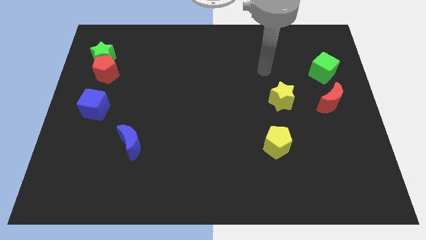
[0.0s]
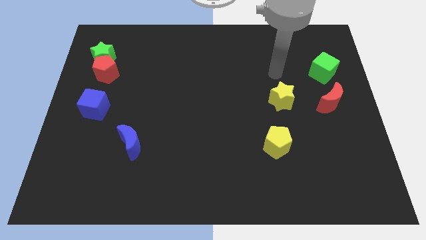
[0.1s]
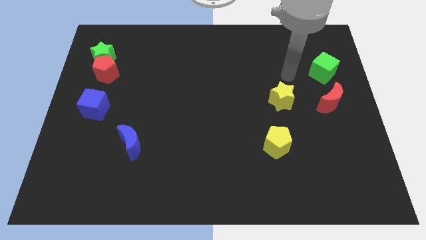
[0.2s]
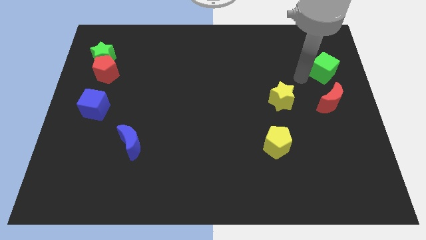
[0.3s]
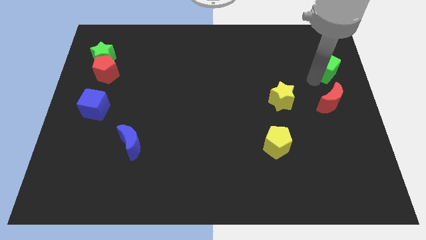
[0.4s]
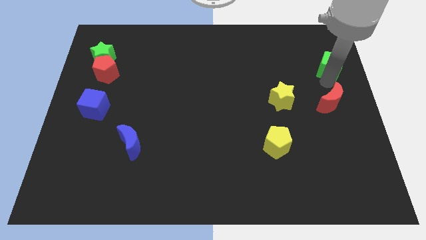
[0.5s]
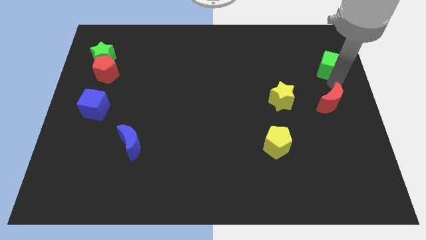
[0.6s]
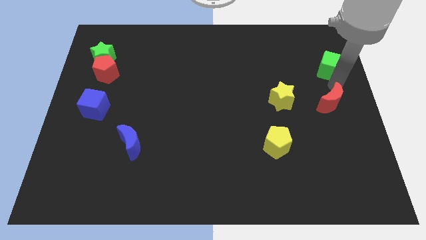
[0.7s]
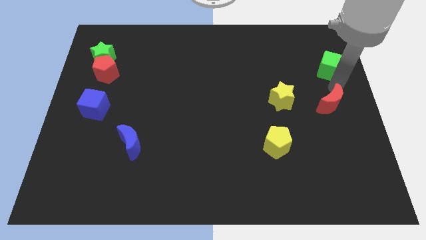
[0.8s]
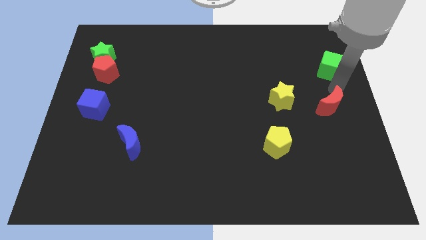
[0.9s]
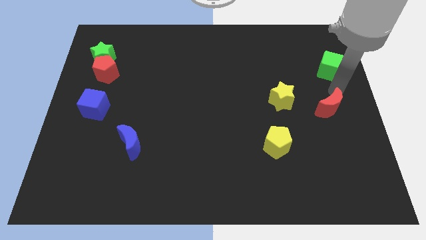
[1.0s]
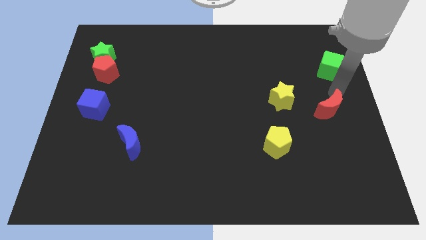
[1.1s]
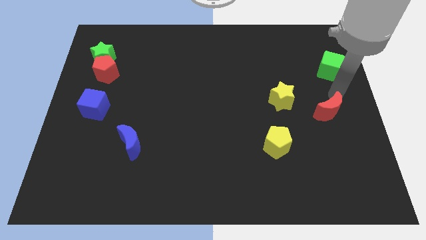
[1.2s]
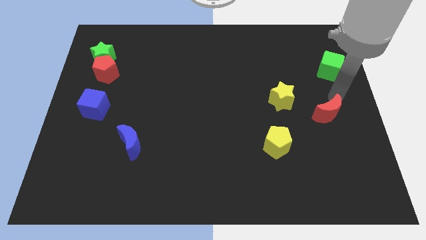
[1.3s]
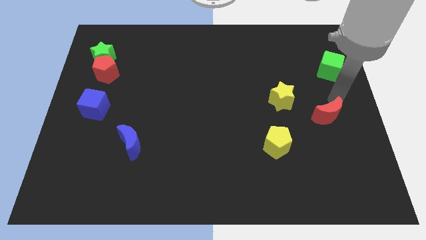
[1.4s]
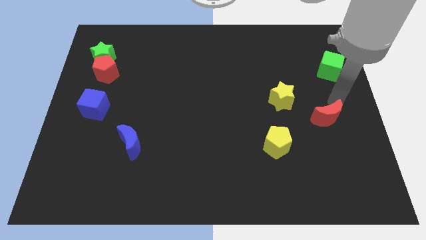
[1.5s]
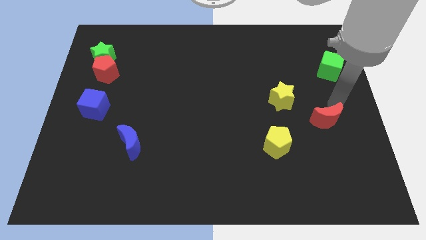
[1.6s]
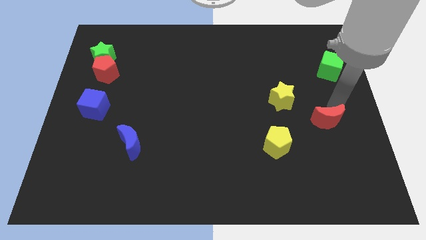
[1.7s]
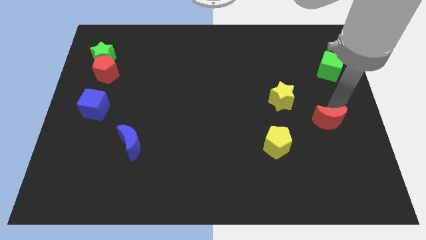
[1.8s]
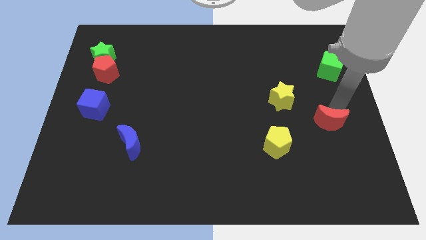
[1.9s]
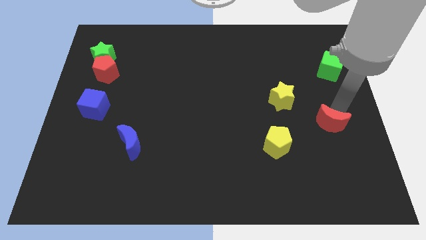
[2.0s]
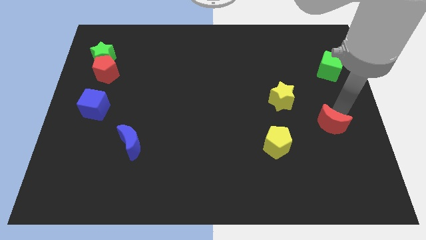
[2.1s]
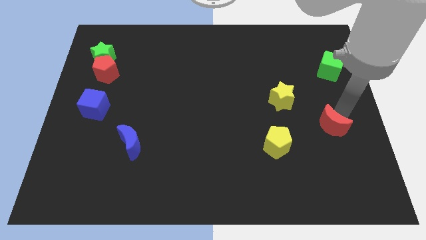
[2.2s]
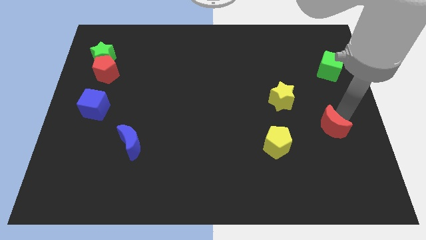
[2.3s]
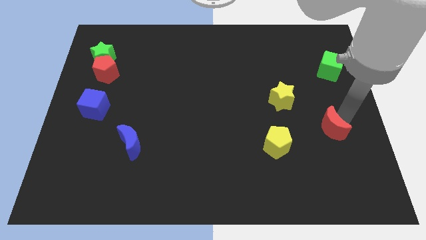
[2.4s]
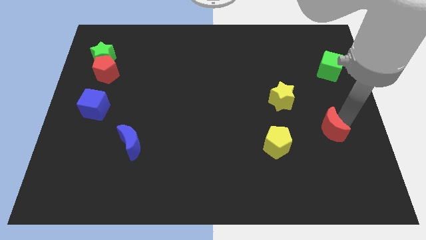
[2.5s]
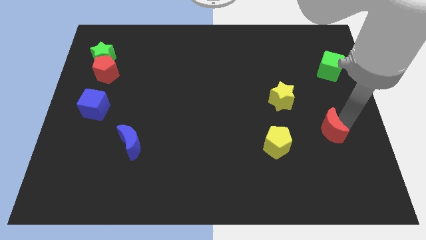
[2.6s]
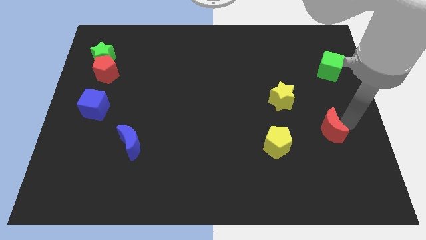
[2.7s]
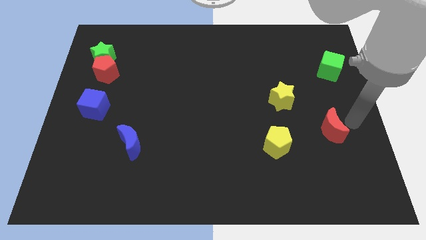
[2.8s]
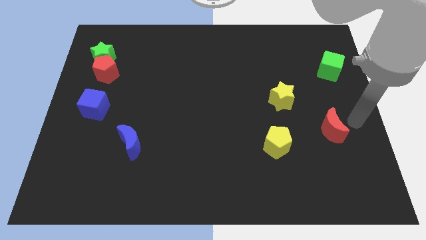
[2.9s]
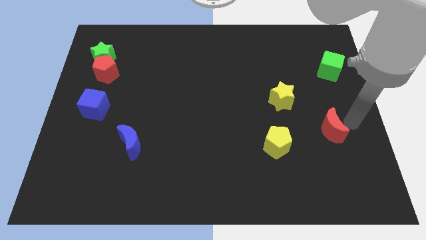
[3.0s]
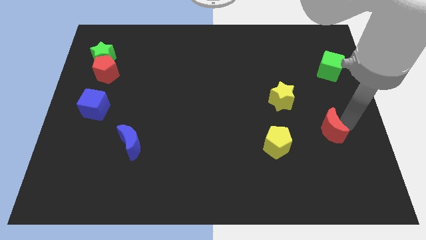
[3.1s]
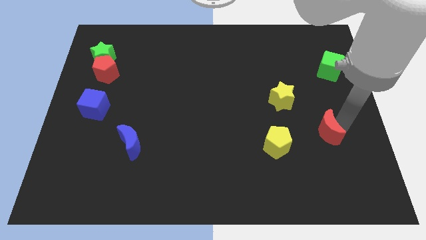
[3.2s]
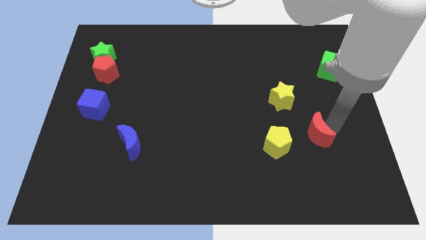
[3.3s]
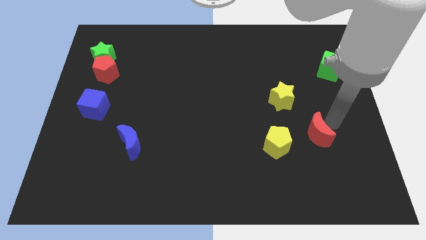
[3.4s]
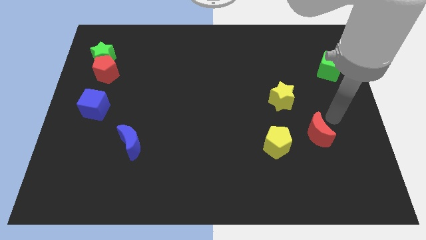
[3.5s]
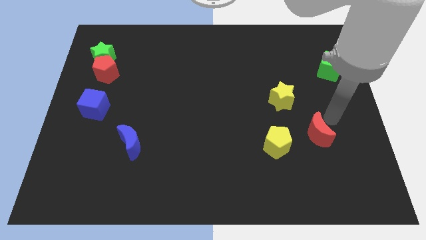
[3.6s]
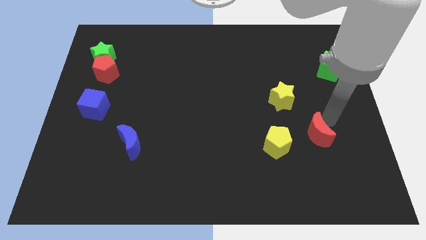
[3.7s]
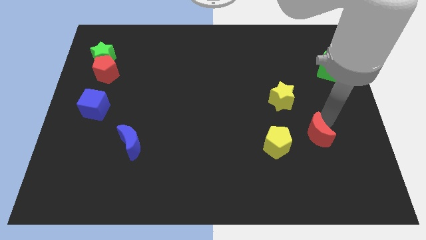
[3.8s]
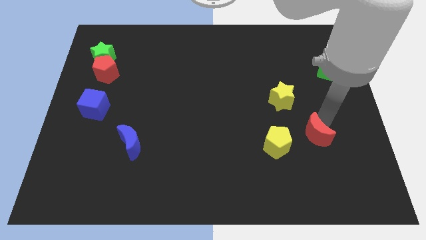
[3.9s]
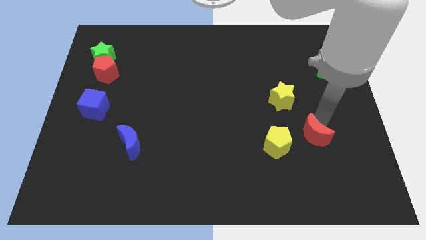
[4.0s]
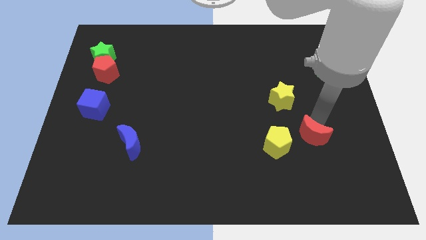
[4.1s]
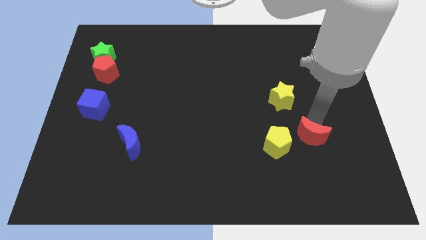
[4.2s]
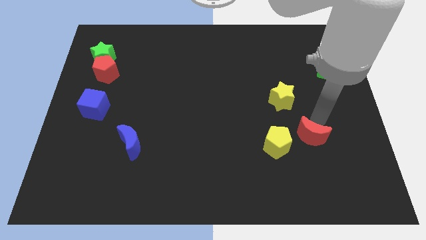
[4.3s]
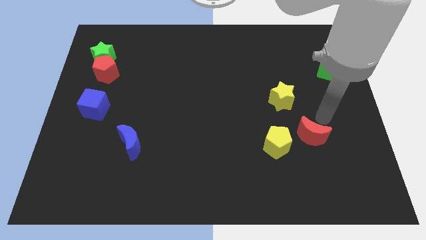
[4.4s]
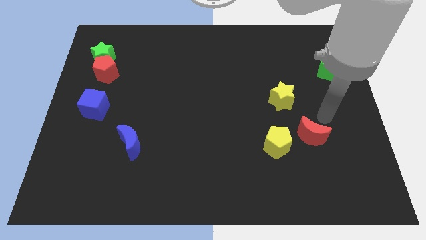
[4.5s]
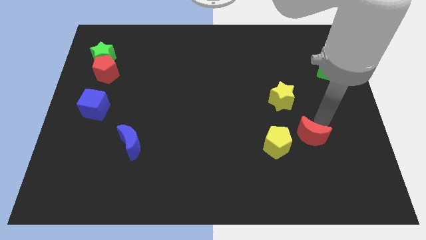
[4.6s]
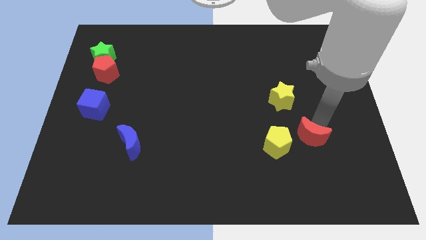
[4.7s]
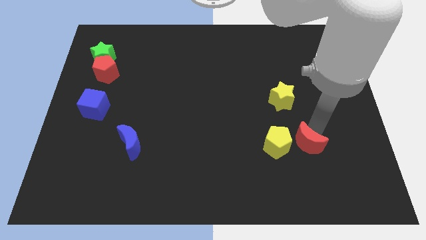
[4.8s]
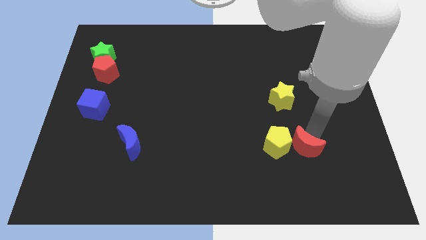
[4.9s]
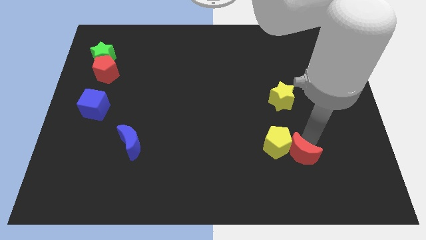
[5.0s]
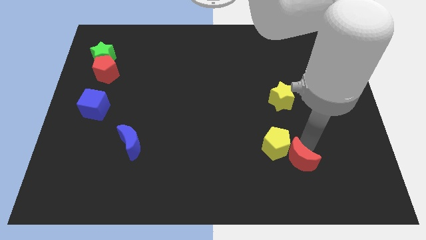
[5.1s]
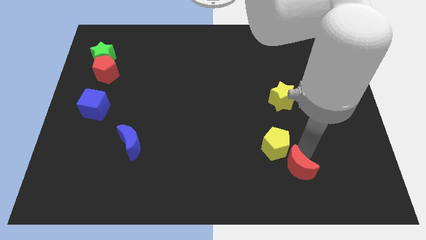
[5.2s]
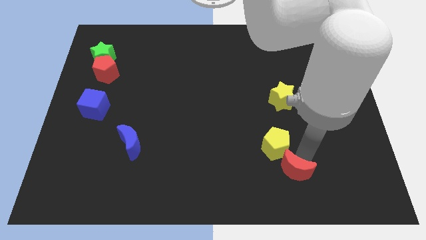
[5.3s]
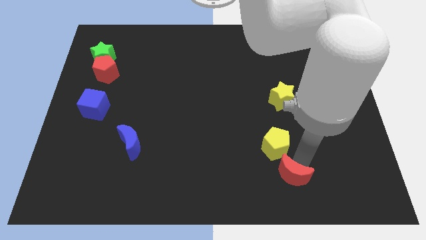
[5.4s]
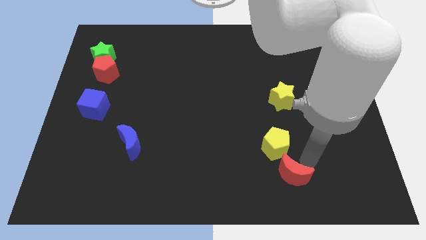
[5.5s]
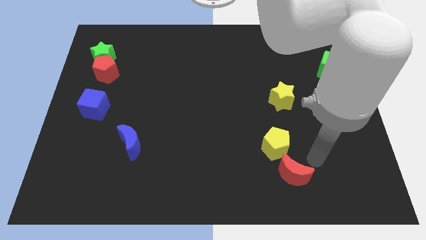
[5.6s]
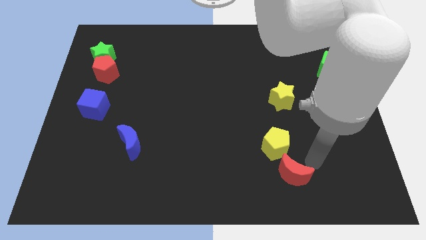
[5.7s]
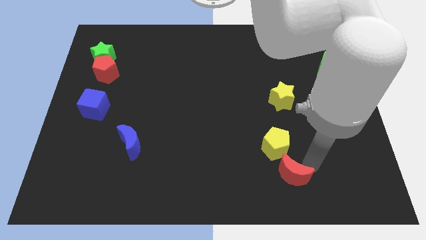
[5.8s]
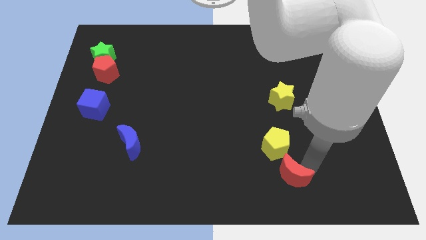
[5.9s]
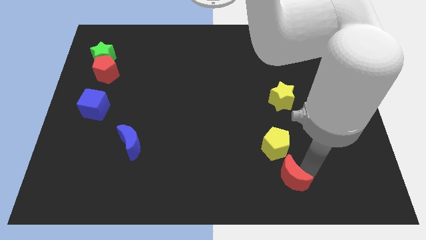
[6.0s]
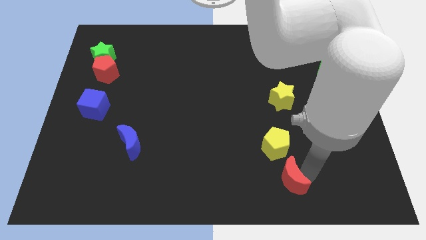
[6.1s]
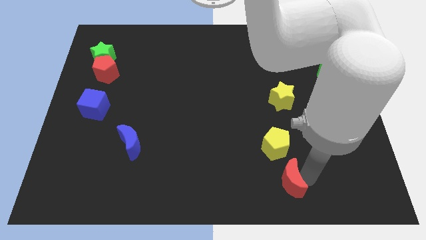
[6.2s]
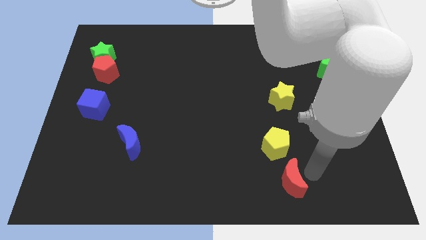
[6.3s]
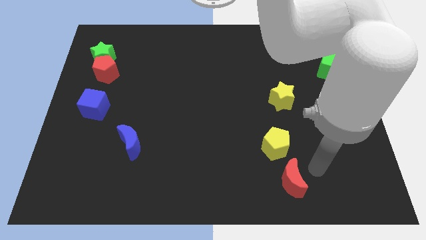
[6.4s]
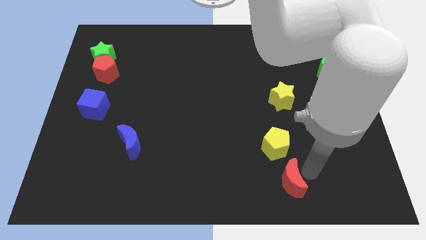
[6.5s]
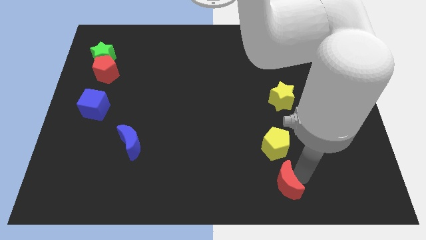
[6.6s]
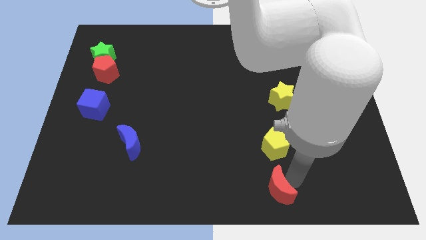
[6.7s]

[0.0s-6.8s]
push the red moon to the bottom
